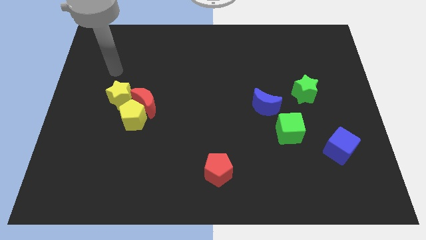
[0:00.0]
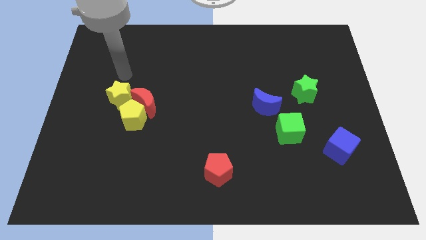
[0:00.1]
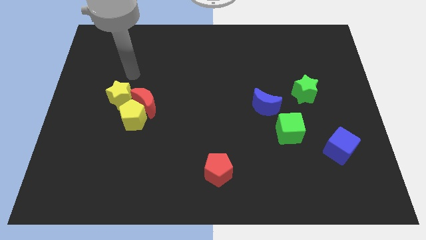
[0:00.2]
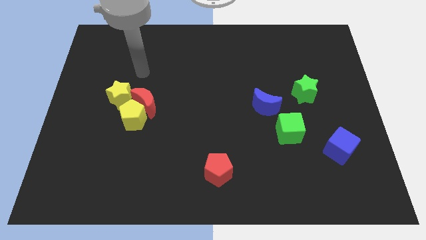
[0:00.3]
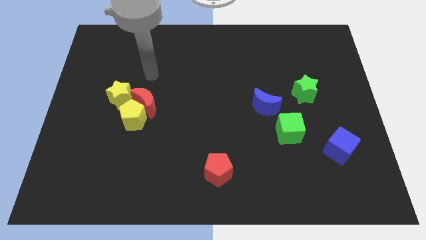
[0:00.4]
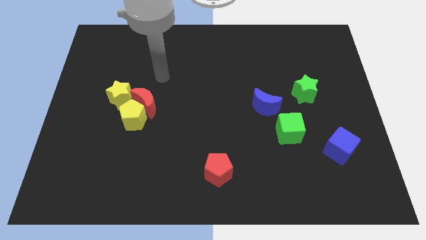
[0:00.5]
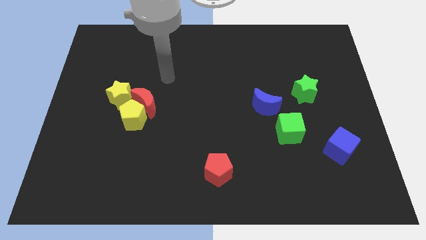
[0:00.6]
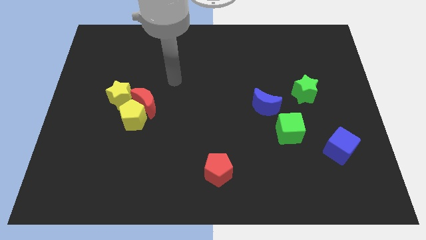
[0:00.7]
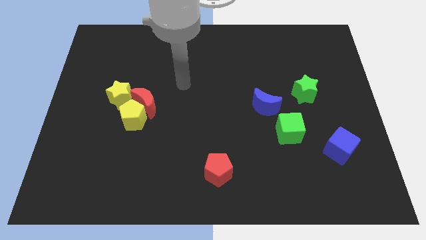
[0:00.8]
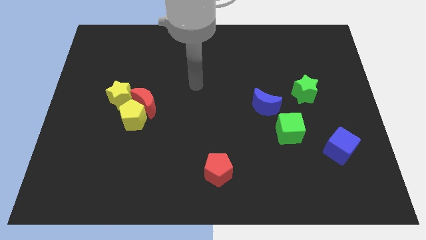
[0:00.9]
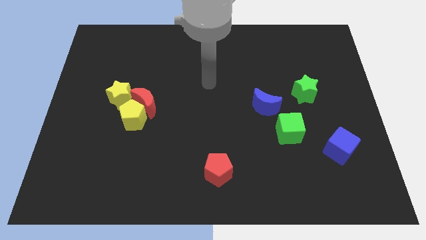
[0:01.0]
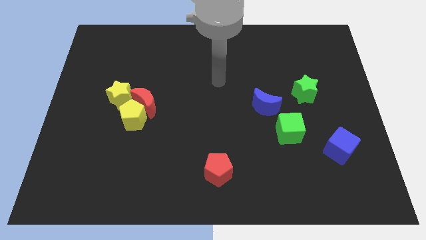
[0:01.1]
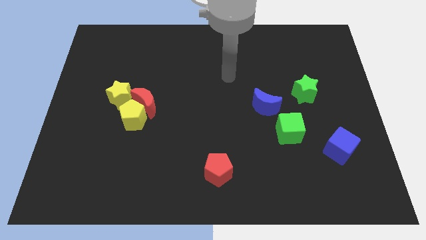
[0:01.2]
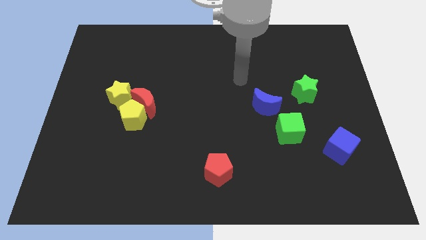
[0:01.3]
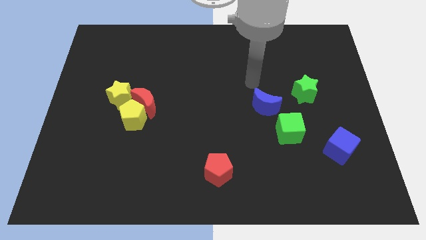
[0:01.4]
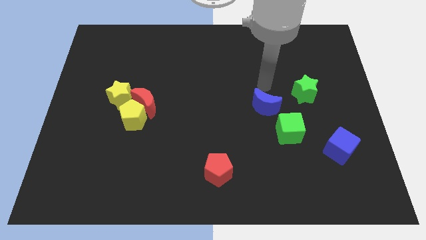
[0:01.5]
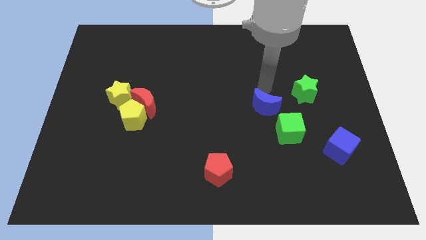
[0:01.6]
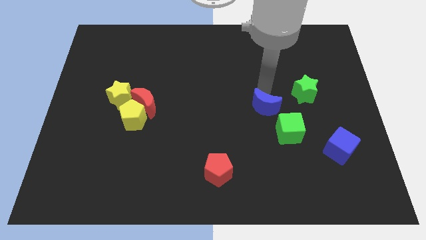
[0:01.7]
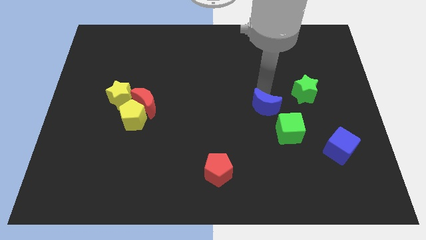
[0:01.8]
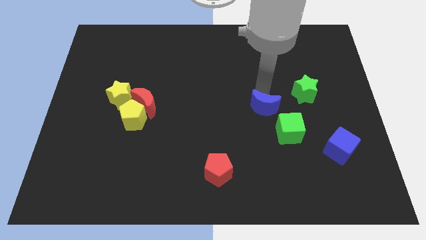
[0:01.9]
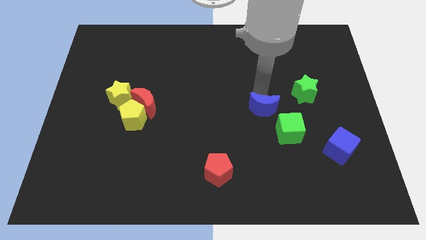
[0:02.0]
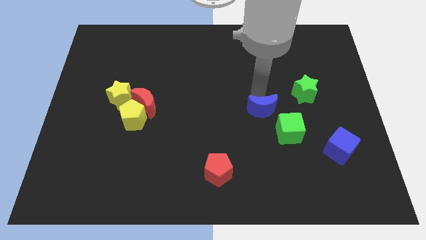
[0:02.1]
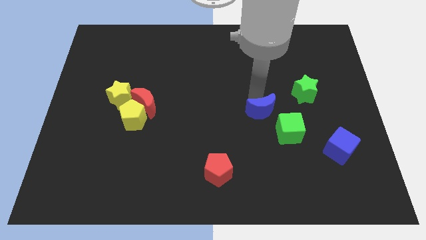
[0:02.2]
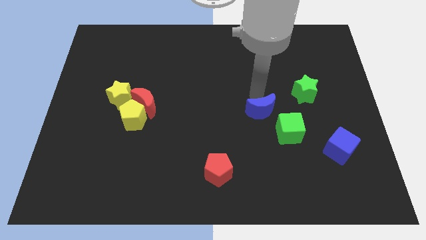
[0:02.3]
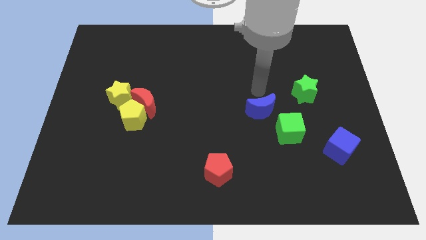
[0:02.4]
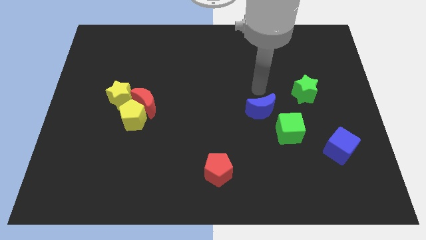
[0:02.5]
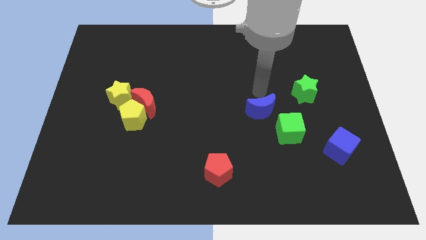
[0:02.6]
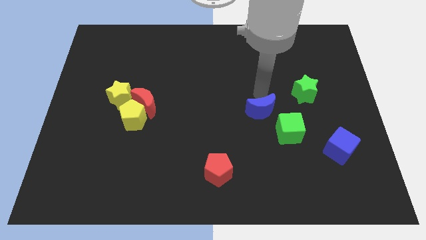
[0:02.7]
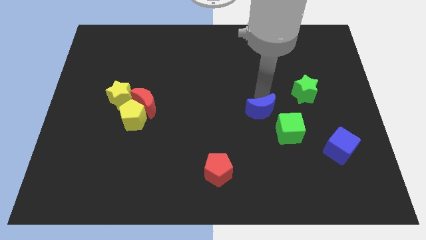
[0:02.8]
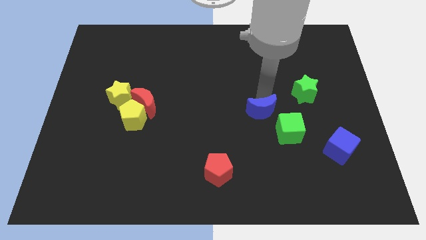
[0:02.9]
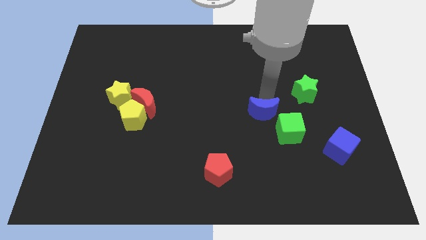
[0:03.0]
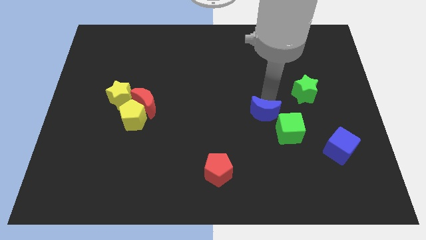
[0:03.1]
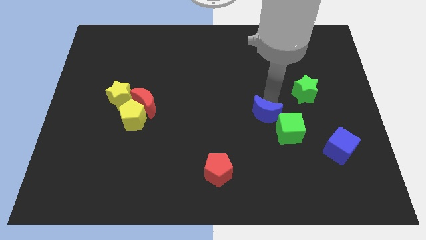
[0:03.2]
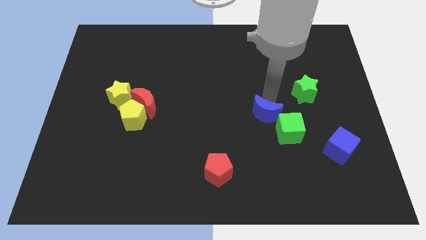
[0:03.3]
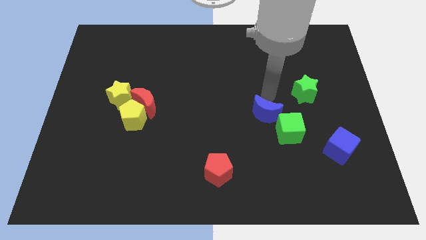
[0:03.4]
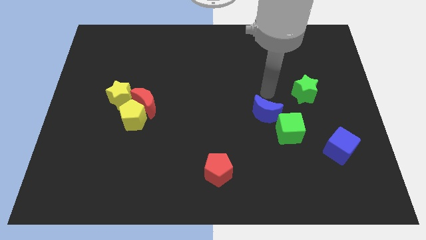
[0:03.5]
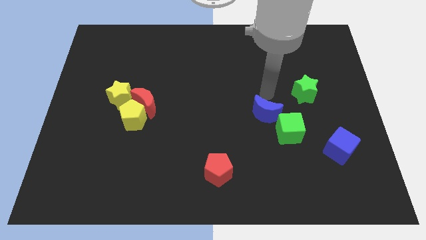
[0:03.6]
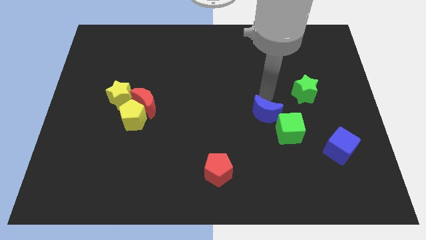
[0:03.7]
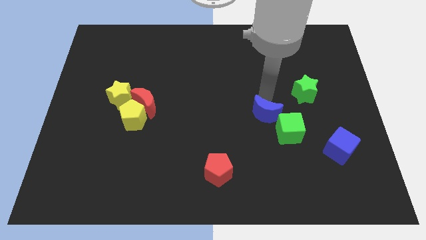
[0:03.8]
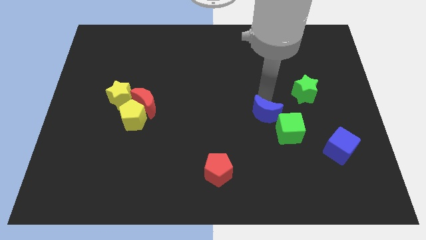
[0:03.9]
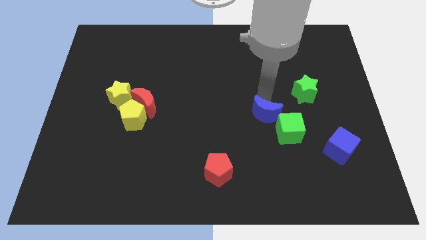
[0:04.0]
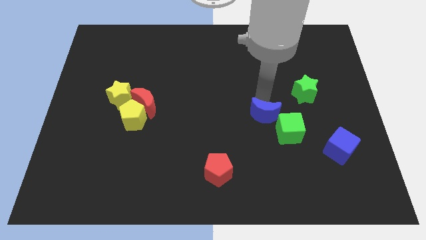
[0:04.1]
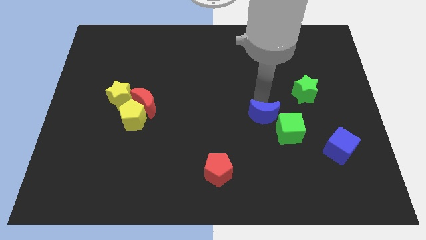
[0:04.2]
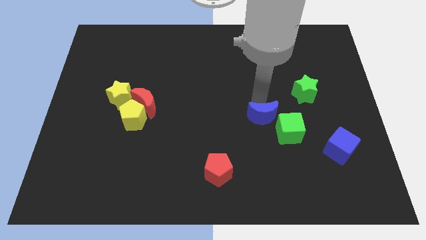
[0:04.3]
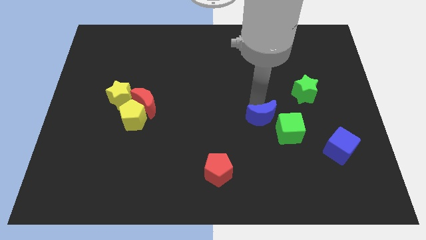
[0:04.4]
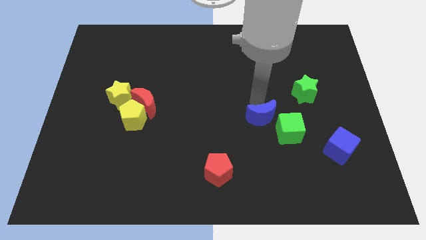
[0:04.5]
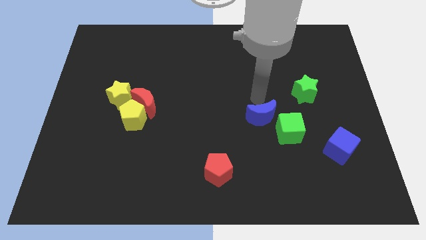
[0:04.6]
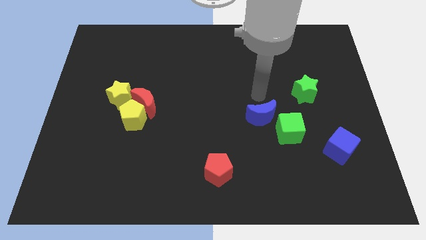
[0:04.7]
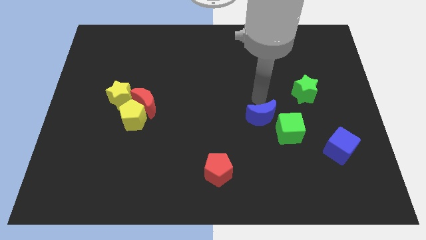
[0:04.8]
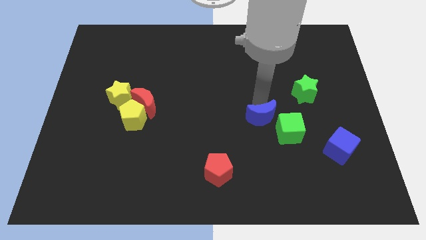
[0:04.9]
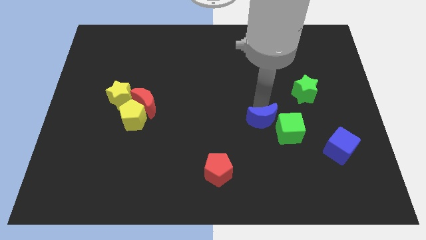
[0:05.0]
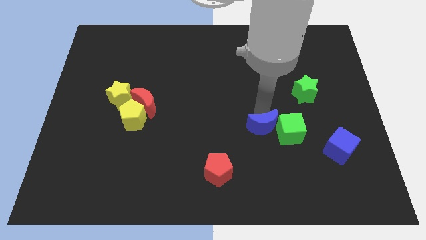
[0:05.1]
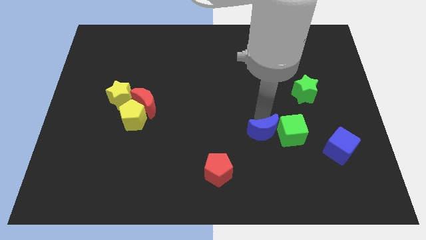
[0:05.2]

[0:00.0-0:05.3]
slightly push the blue moon down

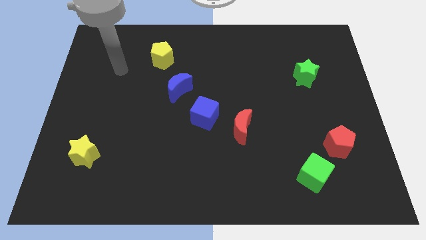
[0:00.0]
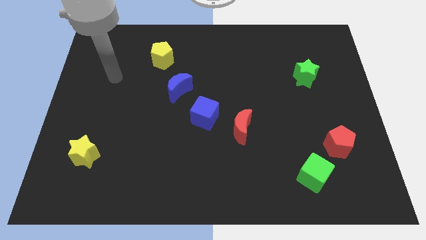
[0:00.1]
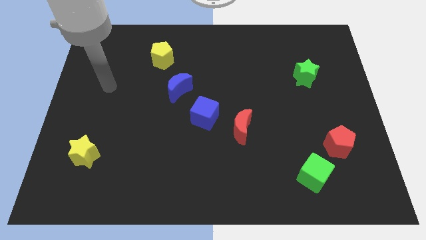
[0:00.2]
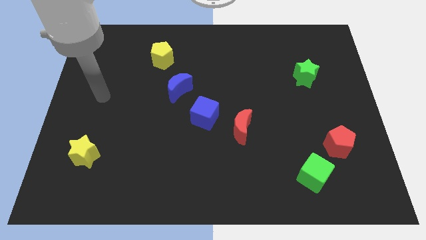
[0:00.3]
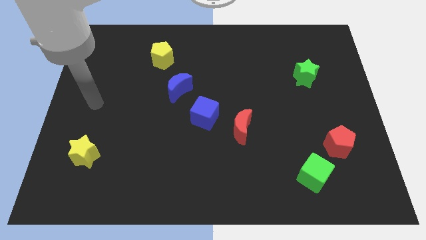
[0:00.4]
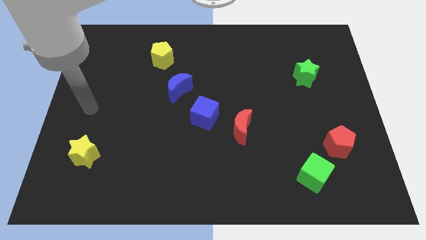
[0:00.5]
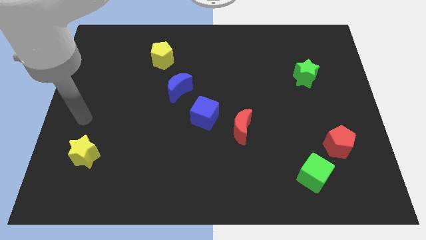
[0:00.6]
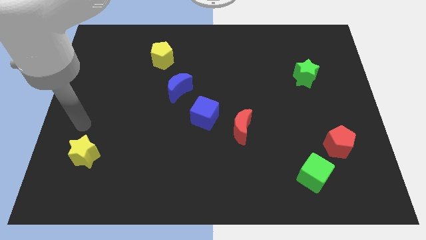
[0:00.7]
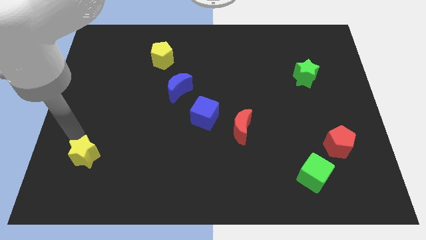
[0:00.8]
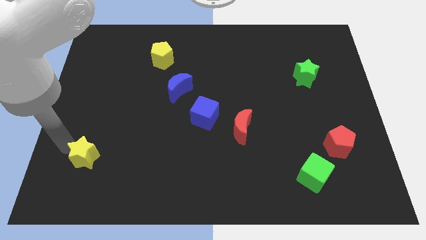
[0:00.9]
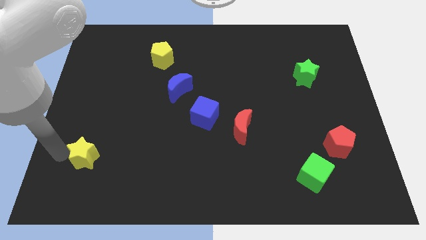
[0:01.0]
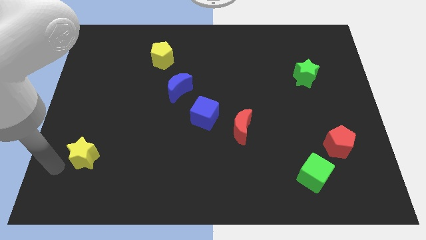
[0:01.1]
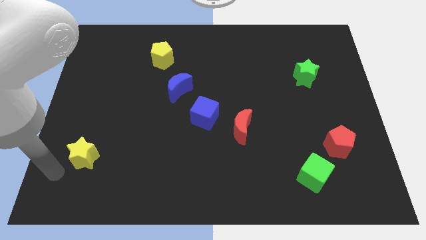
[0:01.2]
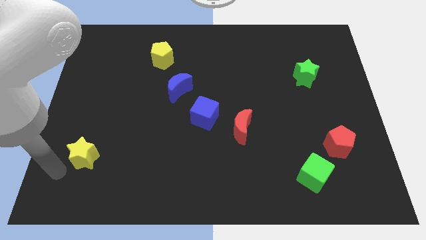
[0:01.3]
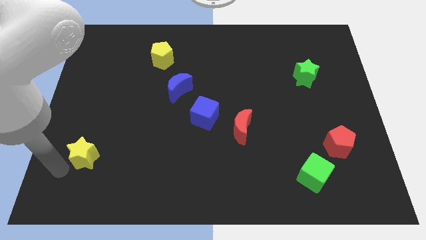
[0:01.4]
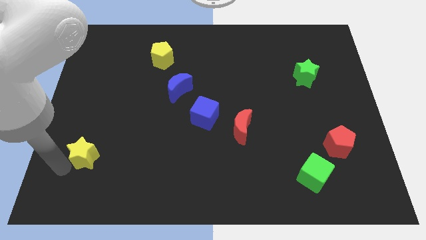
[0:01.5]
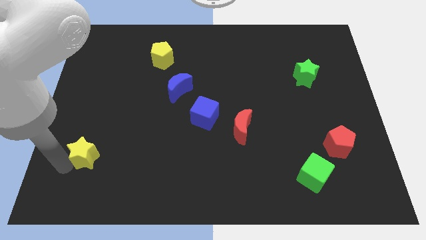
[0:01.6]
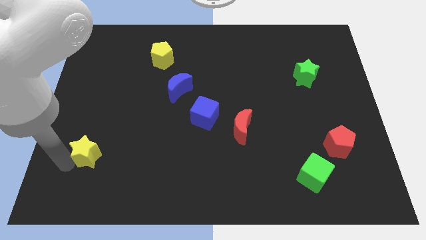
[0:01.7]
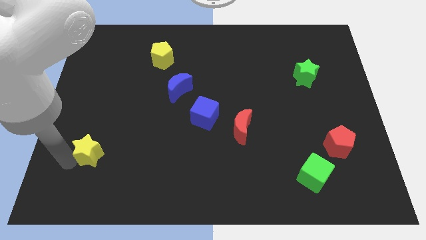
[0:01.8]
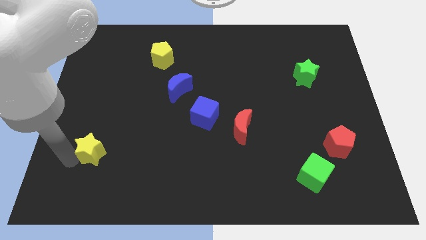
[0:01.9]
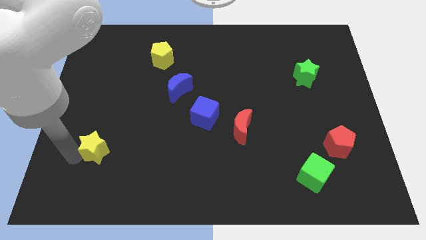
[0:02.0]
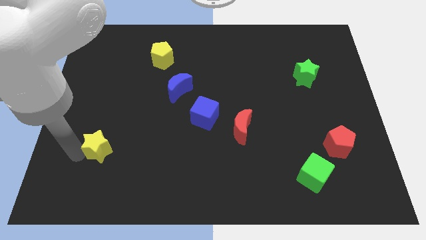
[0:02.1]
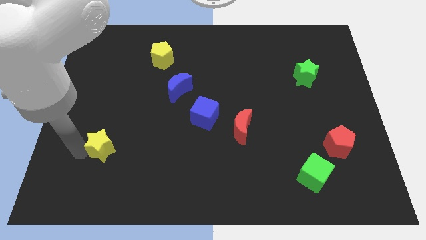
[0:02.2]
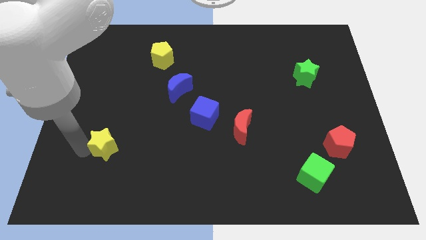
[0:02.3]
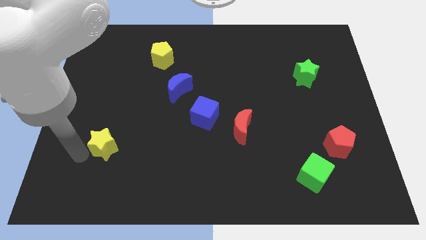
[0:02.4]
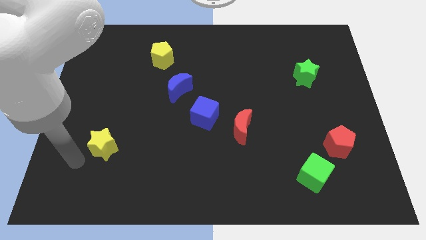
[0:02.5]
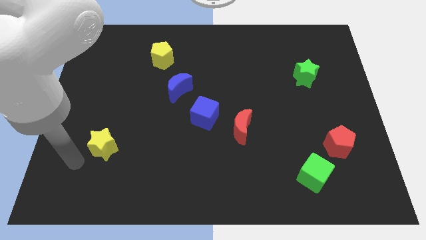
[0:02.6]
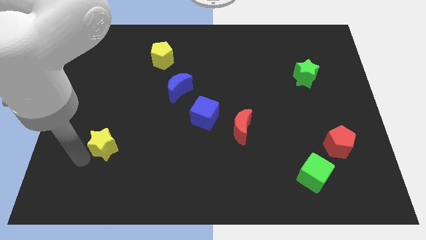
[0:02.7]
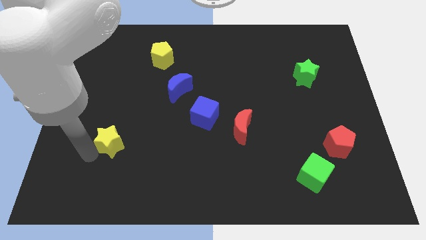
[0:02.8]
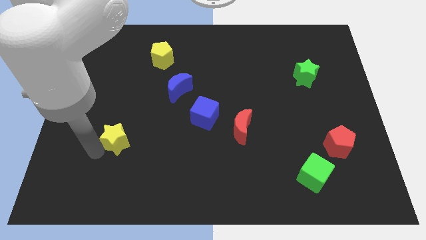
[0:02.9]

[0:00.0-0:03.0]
push the yellow star slightly diagonally up and right
